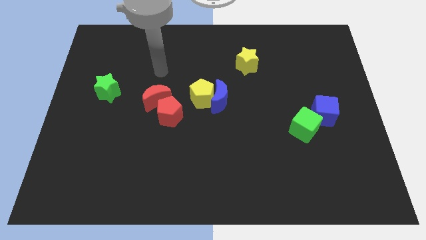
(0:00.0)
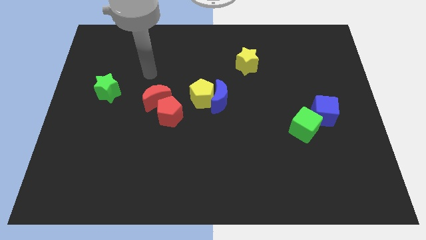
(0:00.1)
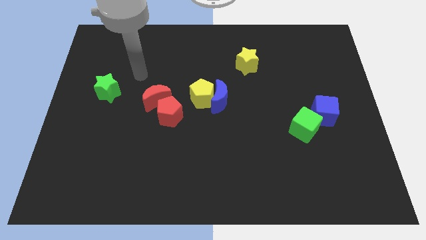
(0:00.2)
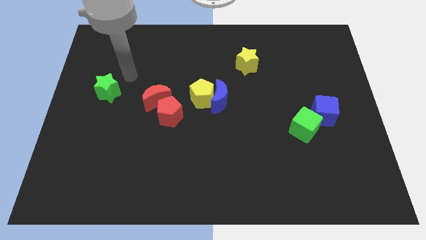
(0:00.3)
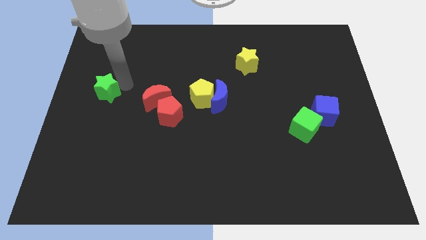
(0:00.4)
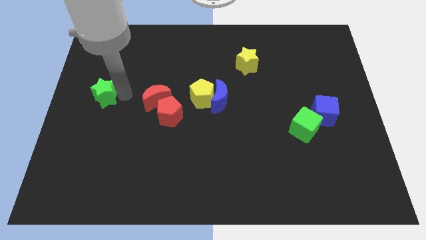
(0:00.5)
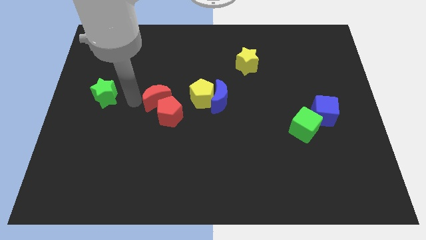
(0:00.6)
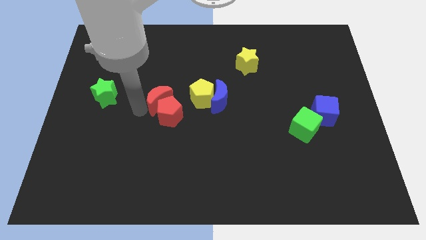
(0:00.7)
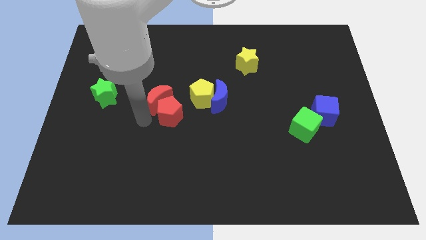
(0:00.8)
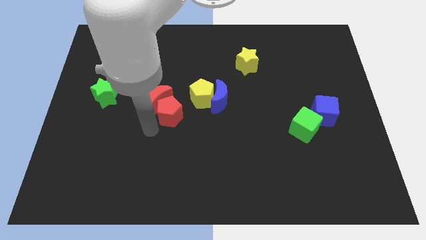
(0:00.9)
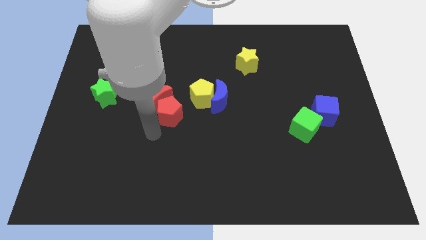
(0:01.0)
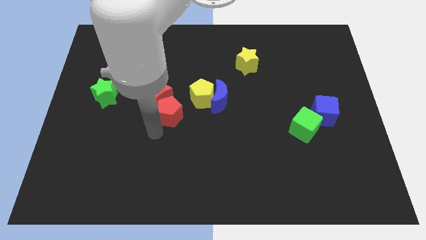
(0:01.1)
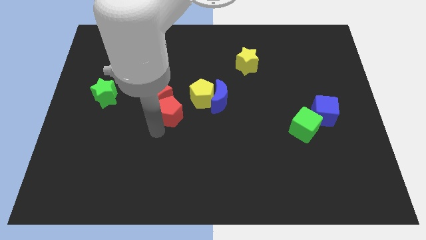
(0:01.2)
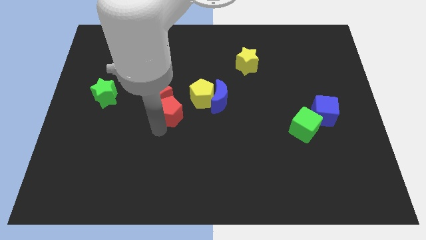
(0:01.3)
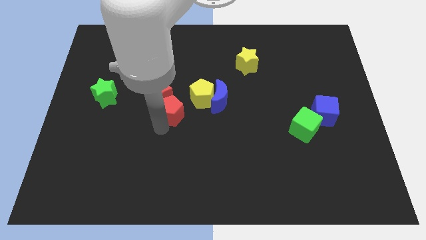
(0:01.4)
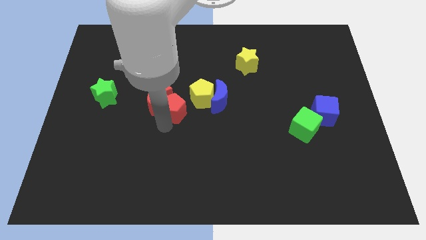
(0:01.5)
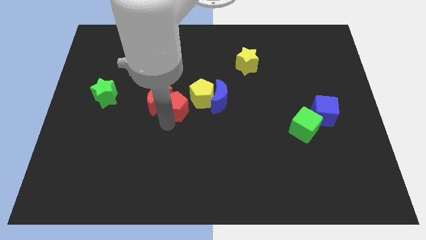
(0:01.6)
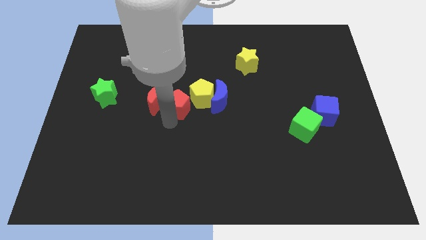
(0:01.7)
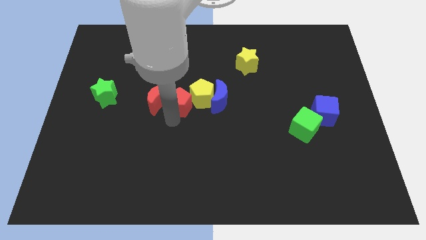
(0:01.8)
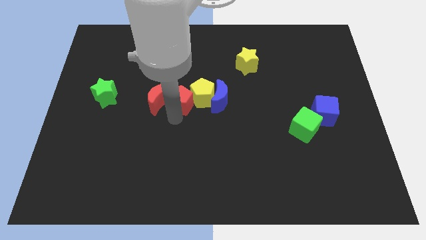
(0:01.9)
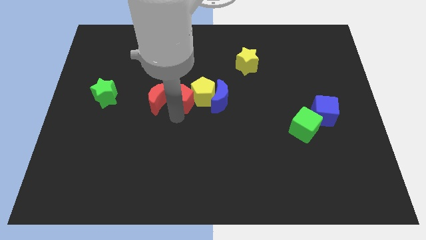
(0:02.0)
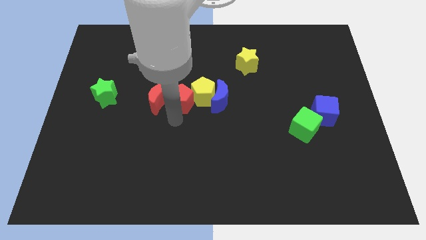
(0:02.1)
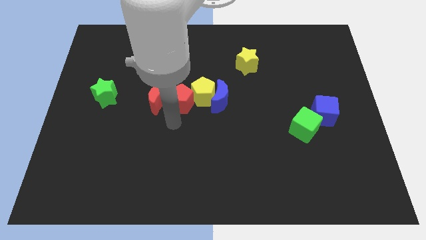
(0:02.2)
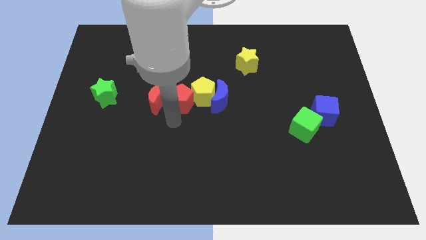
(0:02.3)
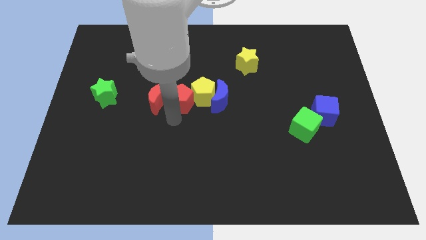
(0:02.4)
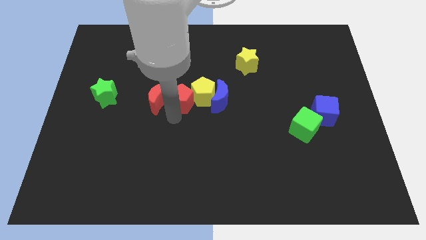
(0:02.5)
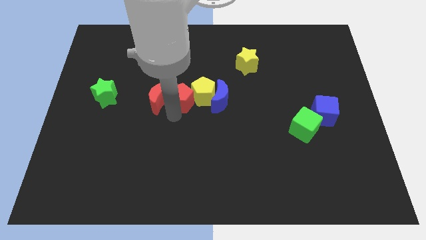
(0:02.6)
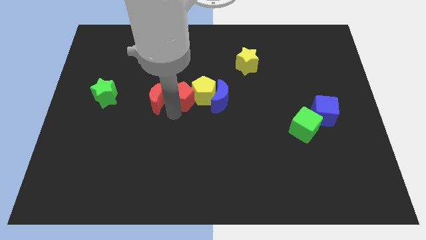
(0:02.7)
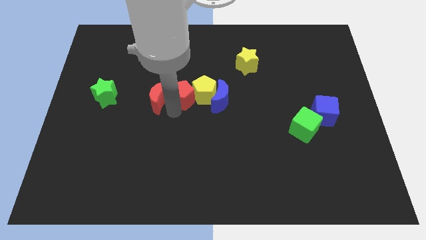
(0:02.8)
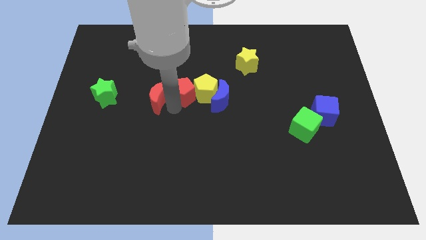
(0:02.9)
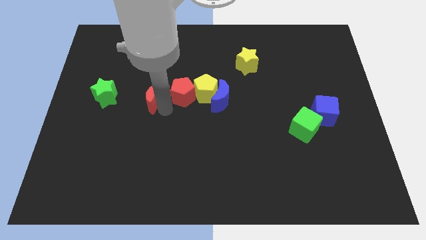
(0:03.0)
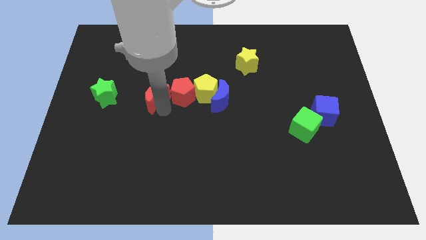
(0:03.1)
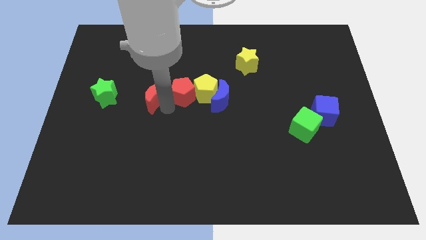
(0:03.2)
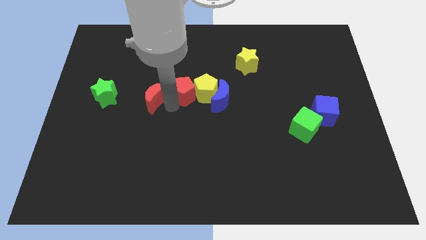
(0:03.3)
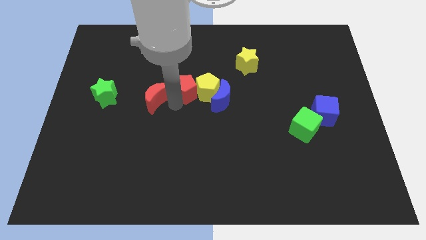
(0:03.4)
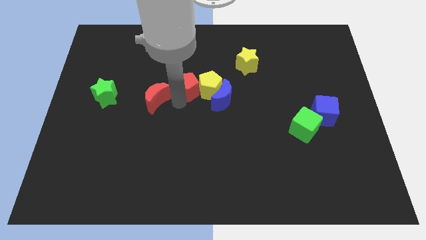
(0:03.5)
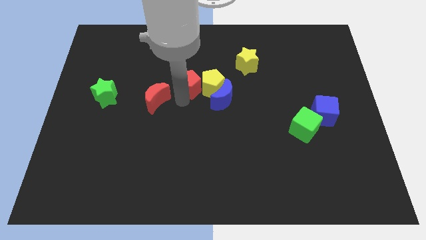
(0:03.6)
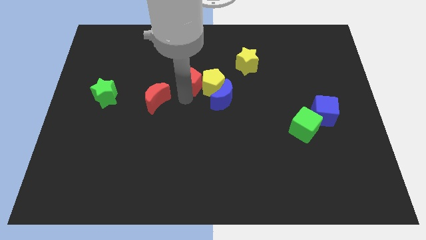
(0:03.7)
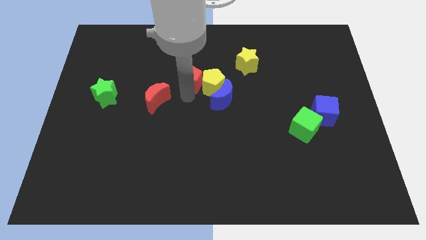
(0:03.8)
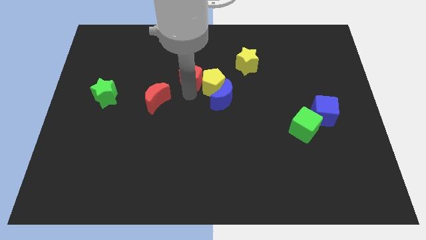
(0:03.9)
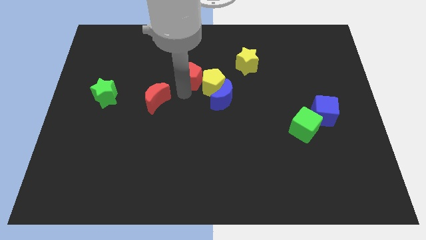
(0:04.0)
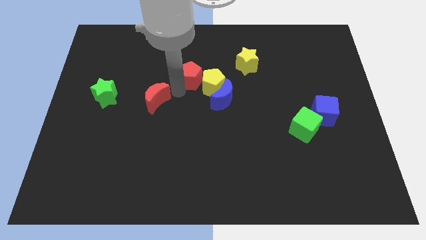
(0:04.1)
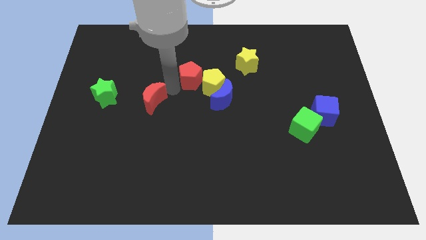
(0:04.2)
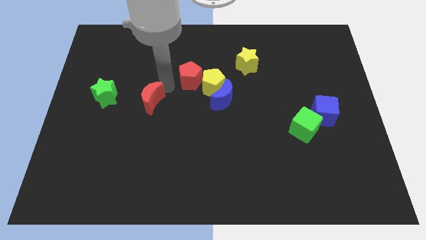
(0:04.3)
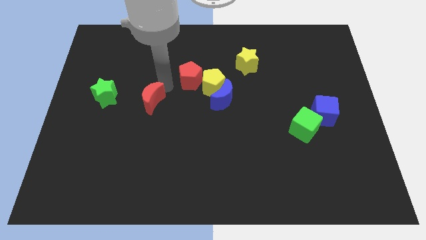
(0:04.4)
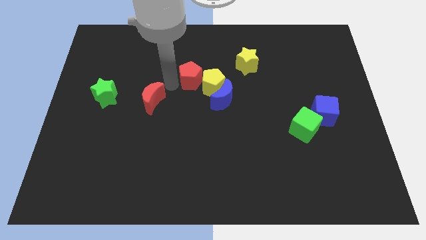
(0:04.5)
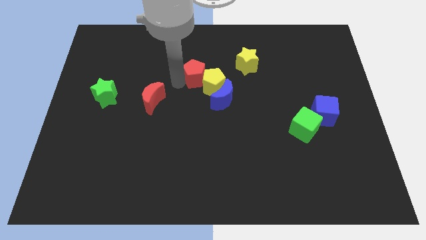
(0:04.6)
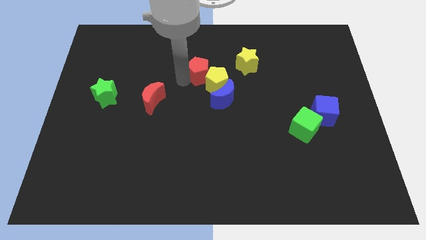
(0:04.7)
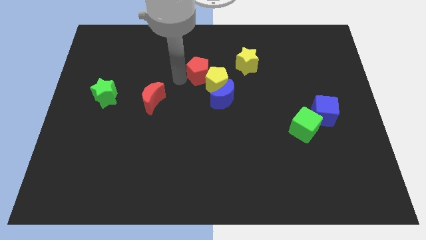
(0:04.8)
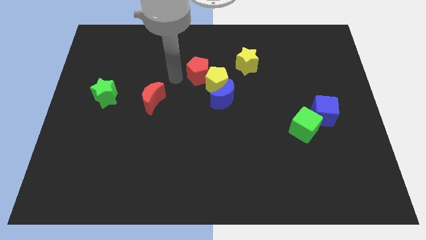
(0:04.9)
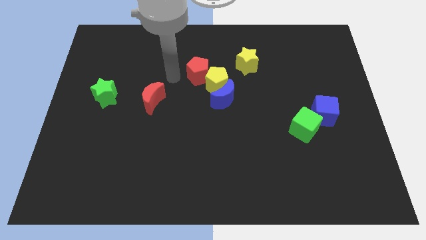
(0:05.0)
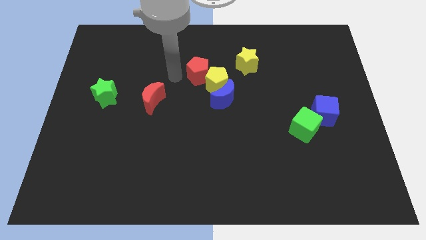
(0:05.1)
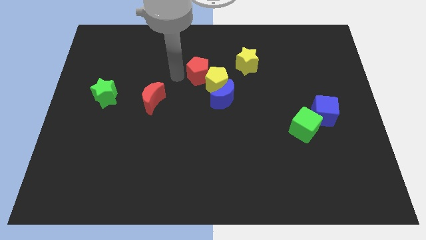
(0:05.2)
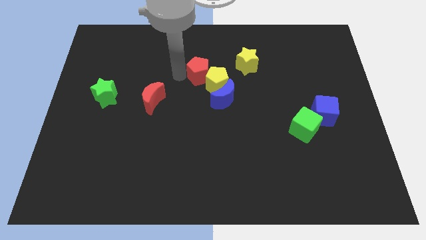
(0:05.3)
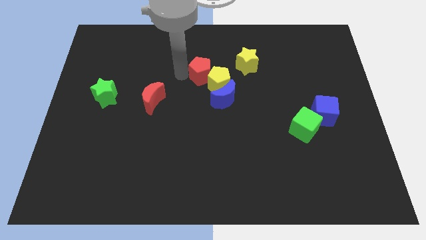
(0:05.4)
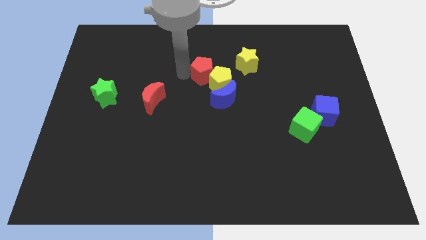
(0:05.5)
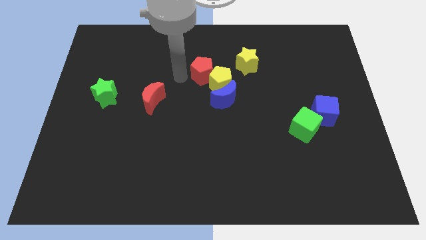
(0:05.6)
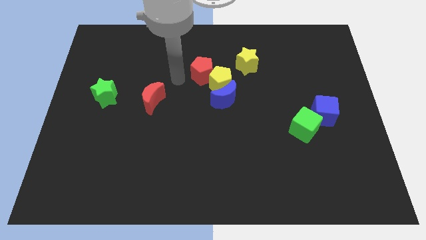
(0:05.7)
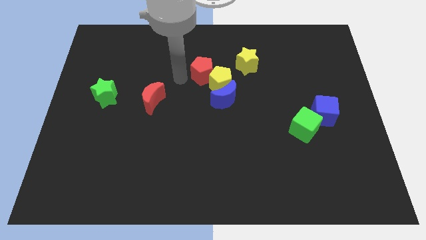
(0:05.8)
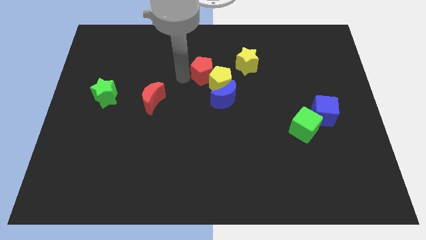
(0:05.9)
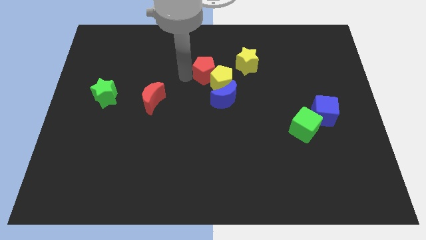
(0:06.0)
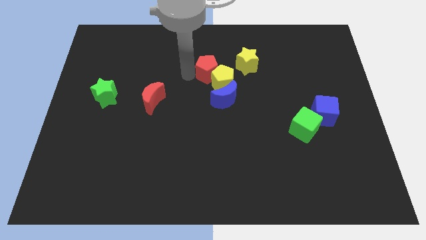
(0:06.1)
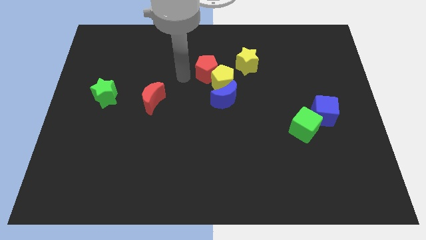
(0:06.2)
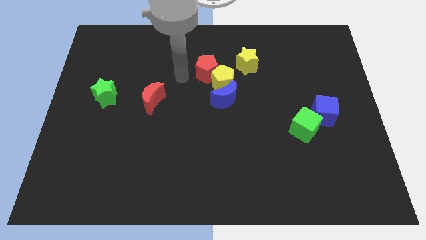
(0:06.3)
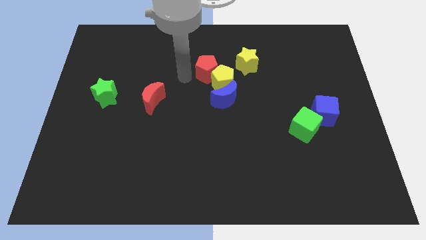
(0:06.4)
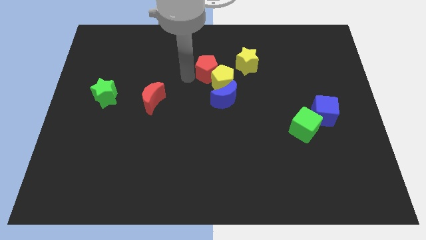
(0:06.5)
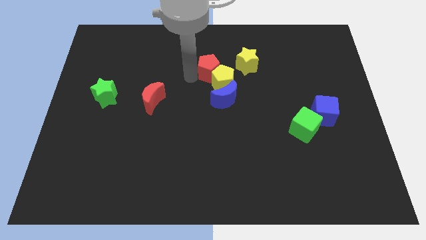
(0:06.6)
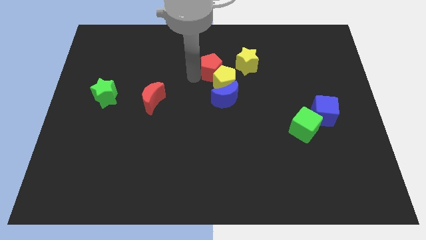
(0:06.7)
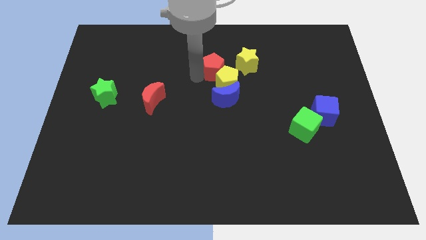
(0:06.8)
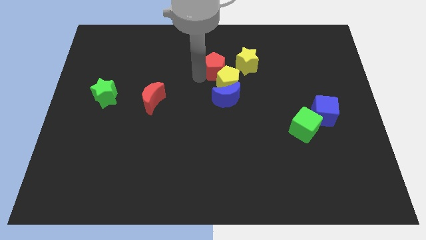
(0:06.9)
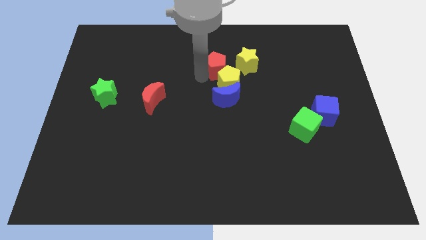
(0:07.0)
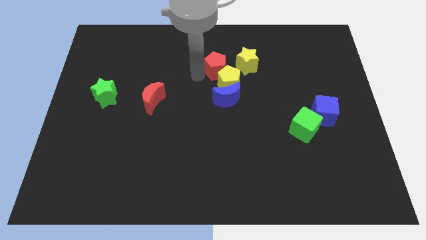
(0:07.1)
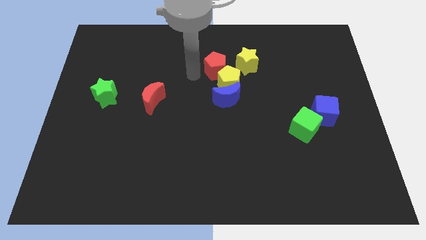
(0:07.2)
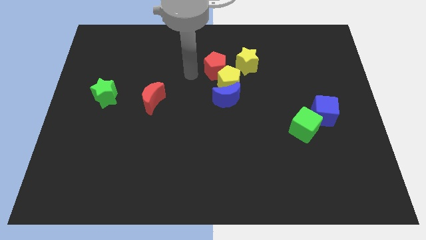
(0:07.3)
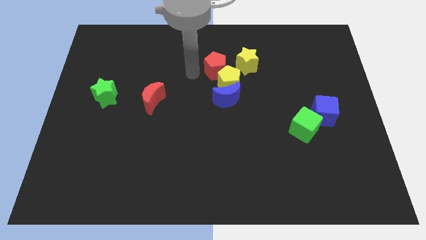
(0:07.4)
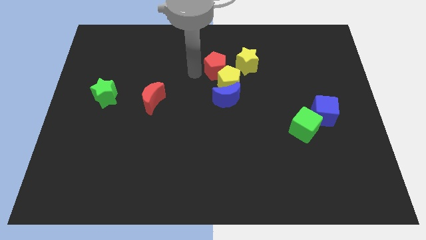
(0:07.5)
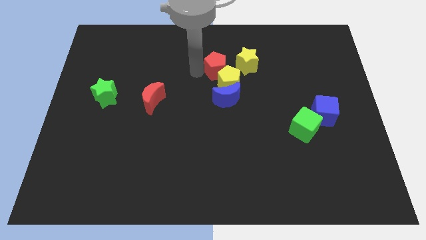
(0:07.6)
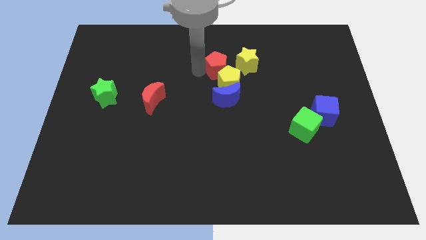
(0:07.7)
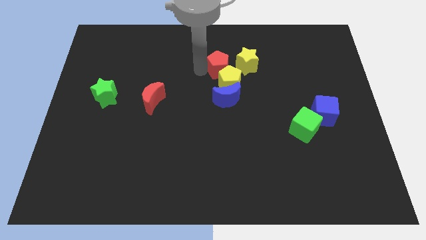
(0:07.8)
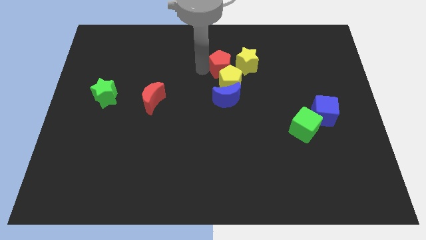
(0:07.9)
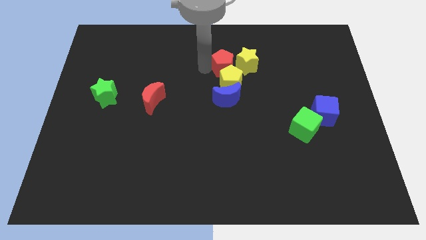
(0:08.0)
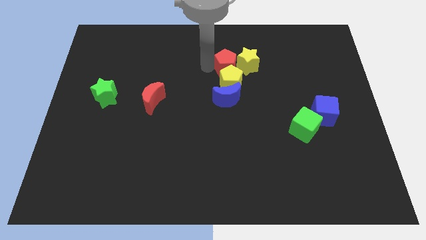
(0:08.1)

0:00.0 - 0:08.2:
move the red pentagon close to the yellow star
